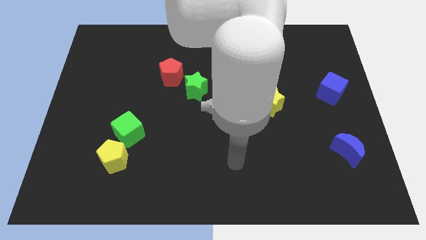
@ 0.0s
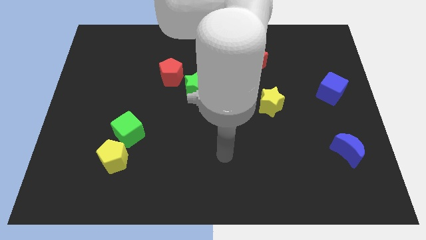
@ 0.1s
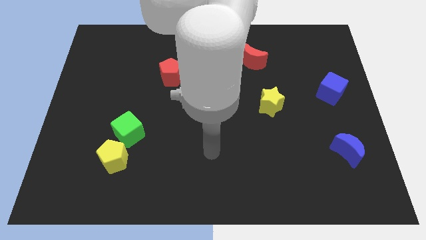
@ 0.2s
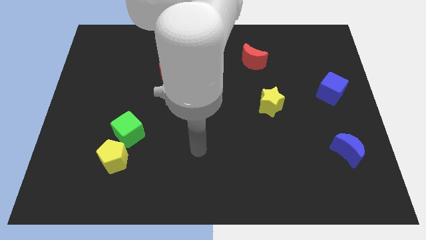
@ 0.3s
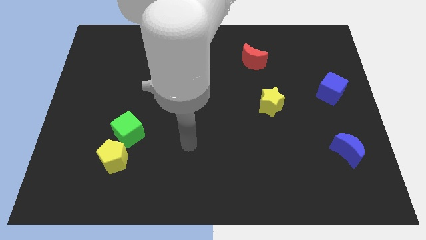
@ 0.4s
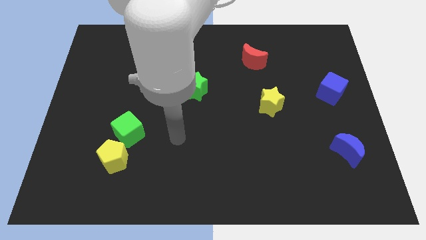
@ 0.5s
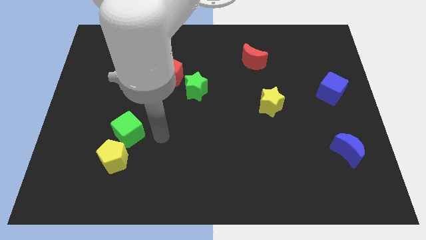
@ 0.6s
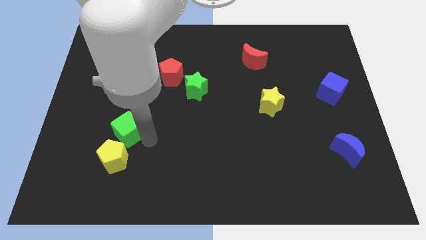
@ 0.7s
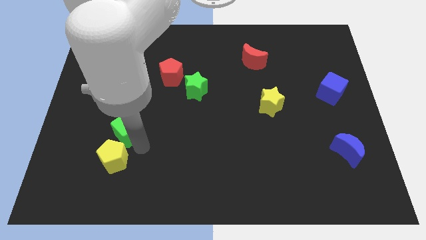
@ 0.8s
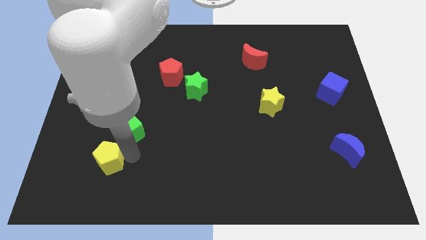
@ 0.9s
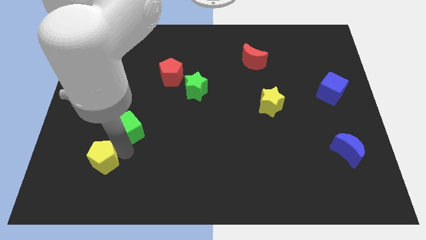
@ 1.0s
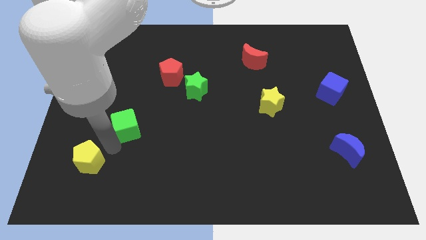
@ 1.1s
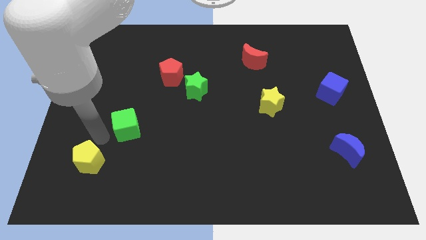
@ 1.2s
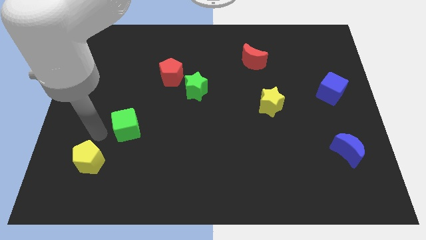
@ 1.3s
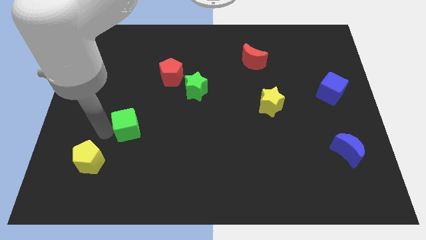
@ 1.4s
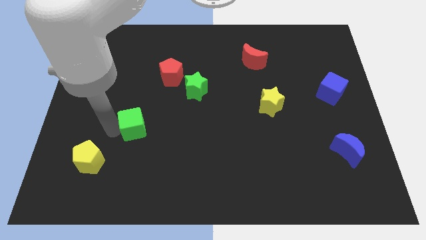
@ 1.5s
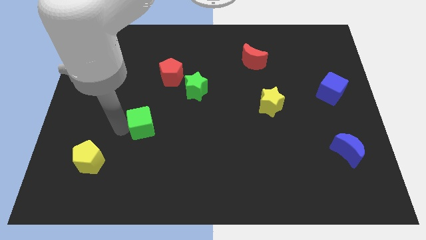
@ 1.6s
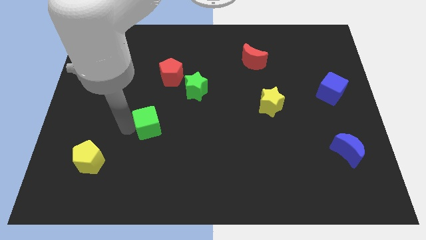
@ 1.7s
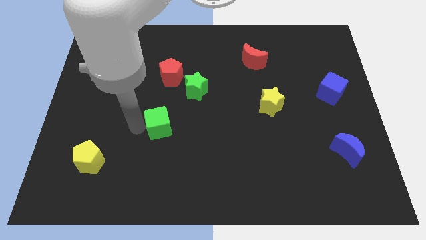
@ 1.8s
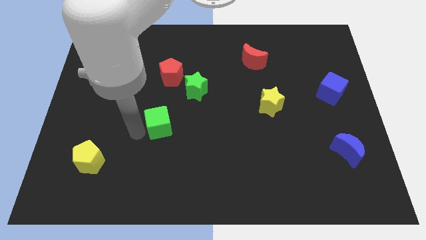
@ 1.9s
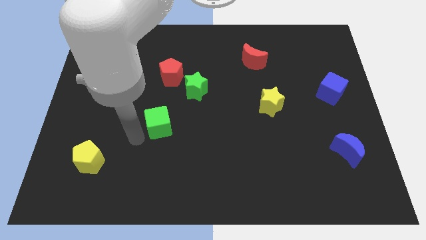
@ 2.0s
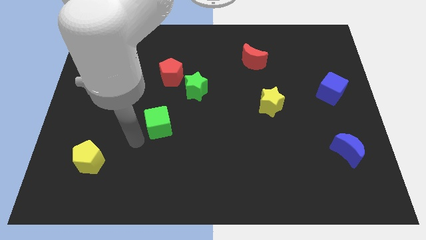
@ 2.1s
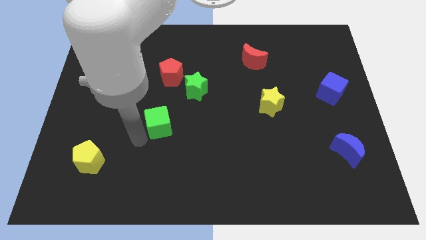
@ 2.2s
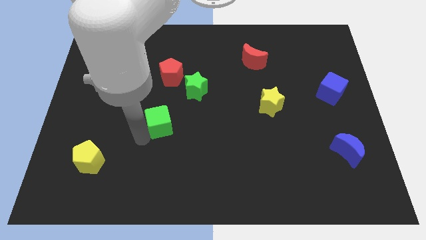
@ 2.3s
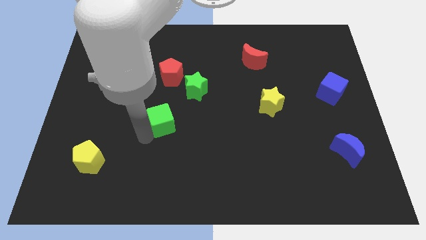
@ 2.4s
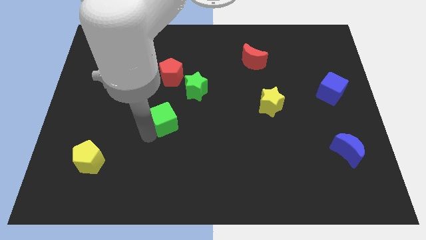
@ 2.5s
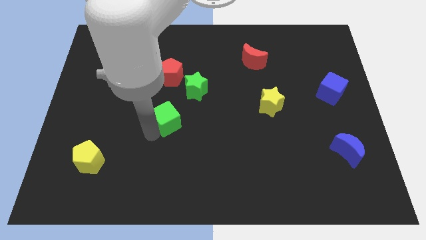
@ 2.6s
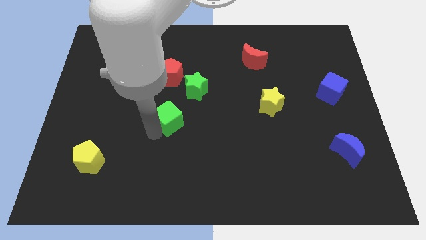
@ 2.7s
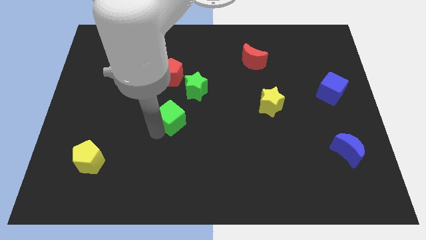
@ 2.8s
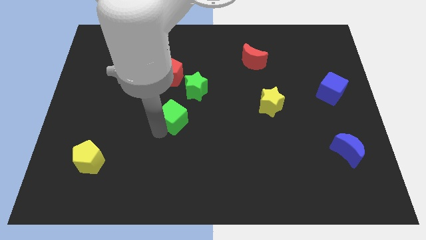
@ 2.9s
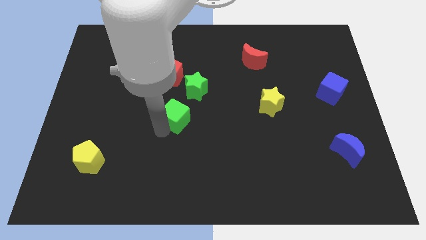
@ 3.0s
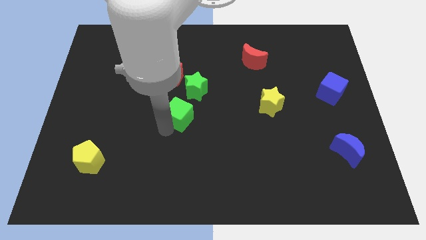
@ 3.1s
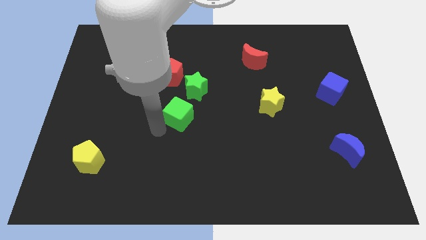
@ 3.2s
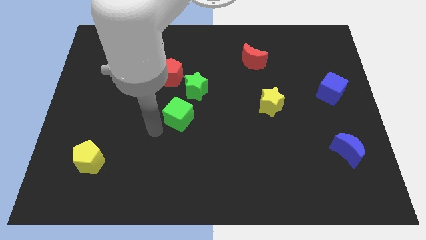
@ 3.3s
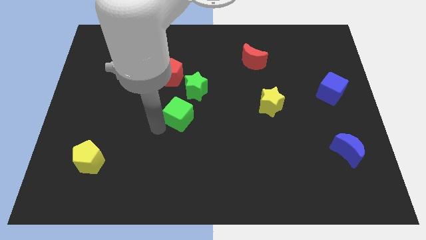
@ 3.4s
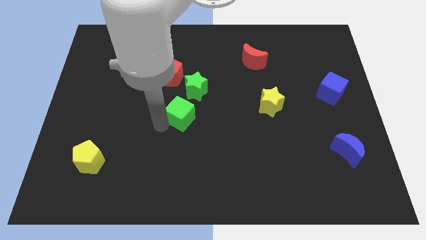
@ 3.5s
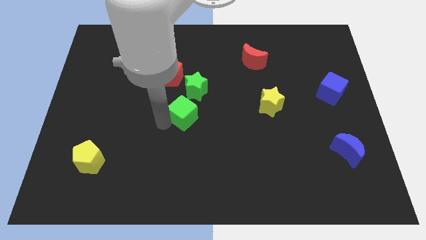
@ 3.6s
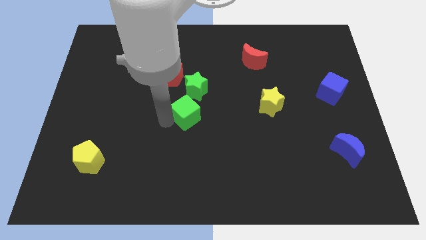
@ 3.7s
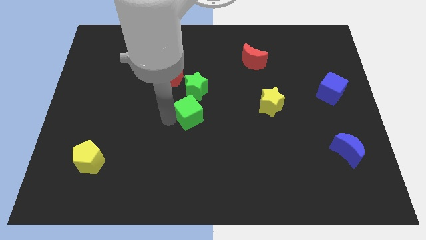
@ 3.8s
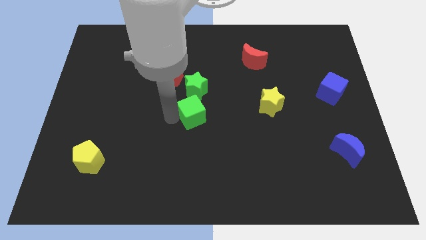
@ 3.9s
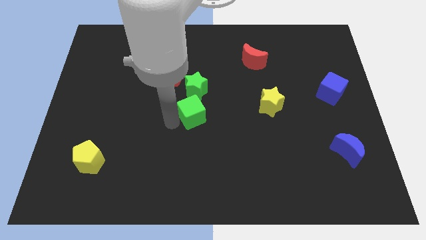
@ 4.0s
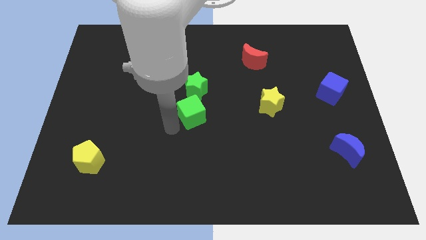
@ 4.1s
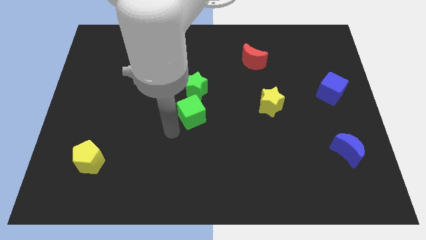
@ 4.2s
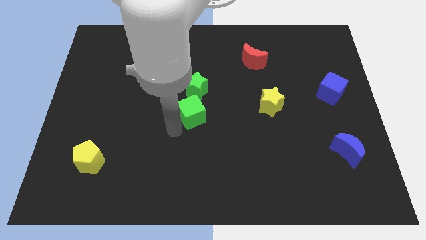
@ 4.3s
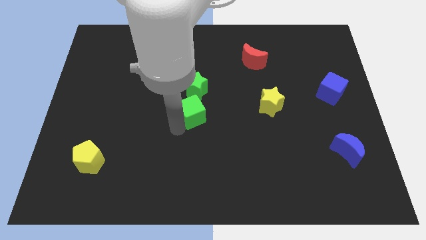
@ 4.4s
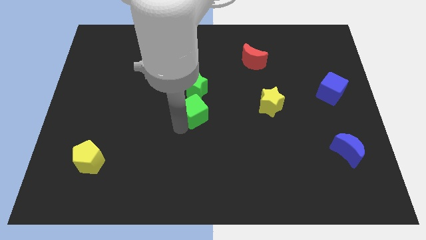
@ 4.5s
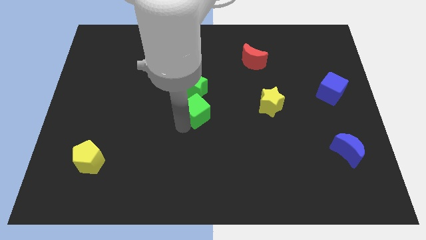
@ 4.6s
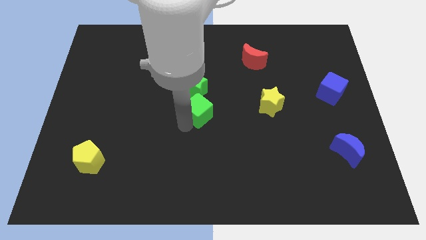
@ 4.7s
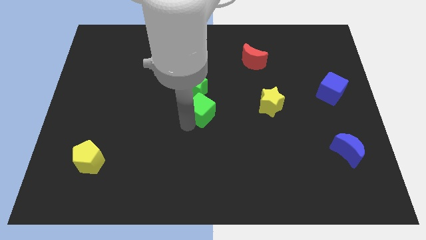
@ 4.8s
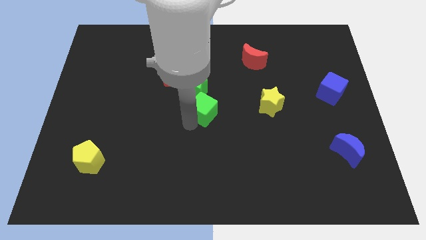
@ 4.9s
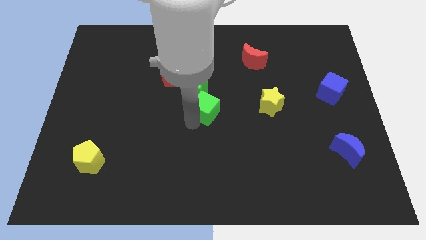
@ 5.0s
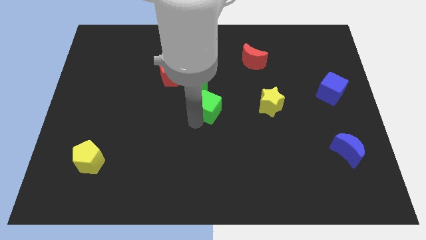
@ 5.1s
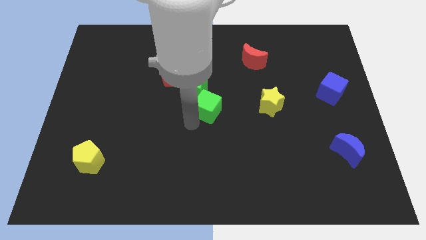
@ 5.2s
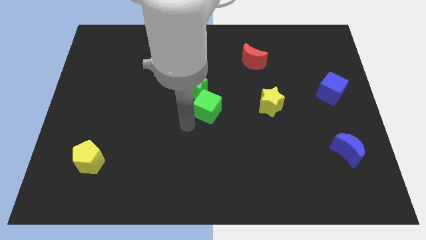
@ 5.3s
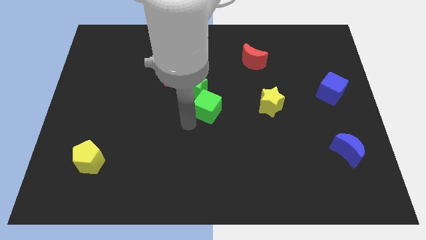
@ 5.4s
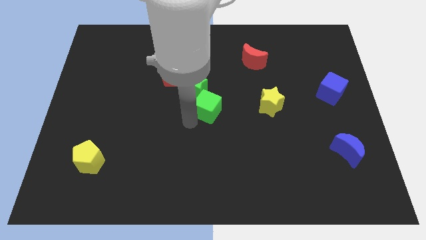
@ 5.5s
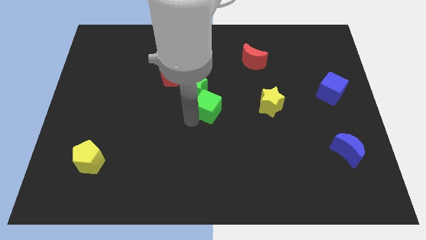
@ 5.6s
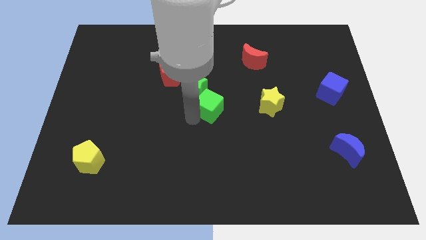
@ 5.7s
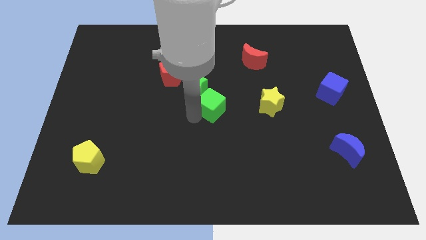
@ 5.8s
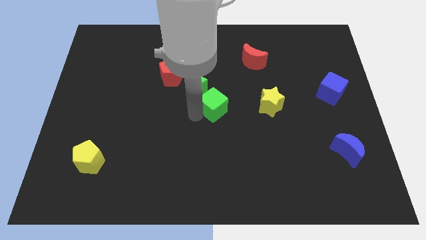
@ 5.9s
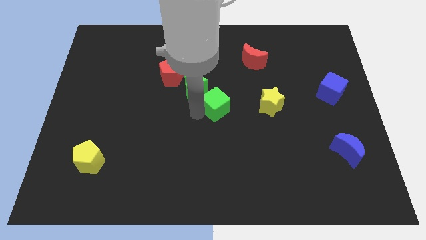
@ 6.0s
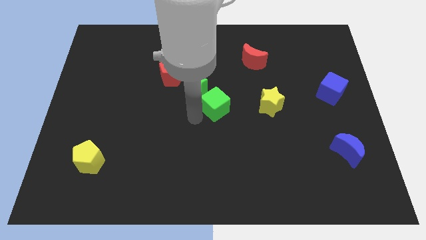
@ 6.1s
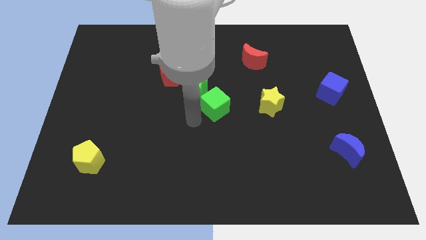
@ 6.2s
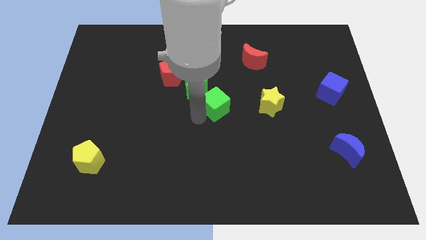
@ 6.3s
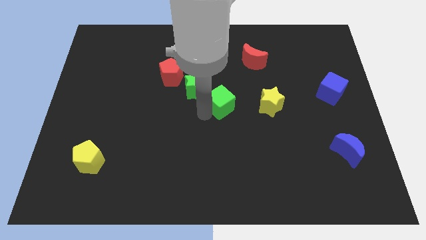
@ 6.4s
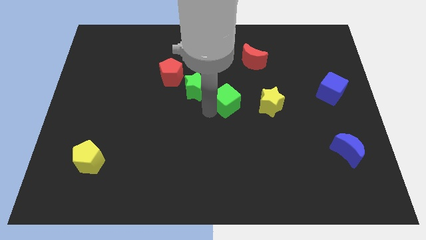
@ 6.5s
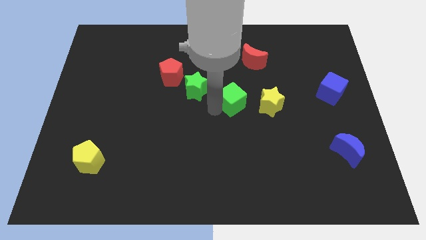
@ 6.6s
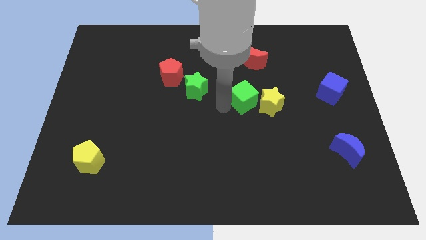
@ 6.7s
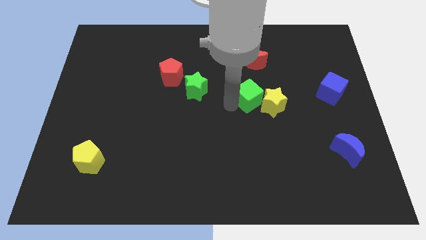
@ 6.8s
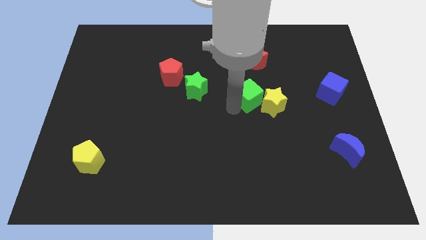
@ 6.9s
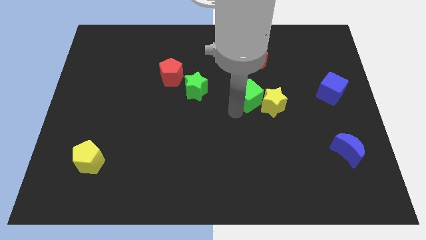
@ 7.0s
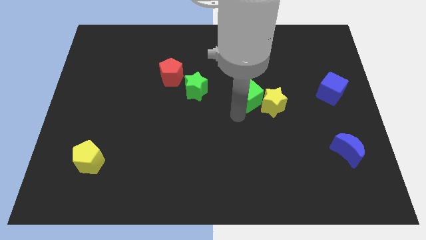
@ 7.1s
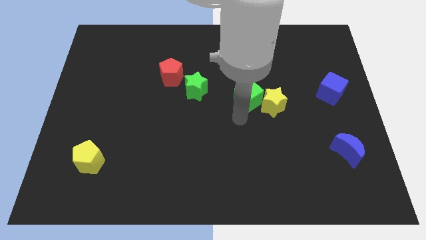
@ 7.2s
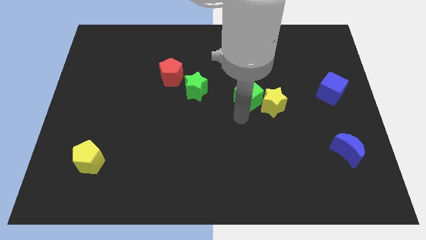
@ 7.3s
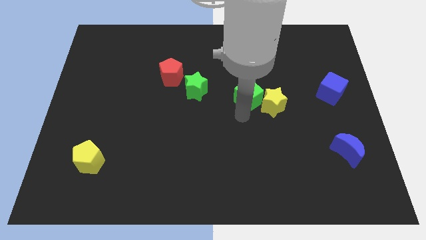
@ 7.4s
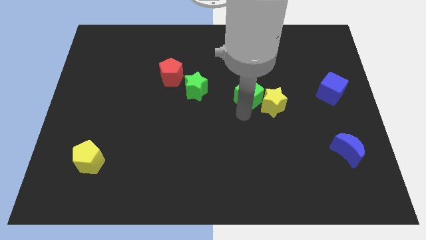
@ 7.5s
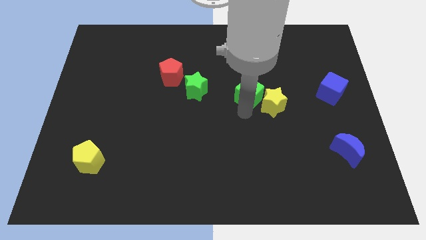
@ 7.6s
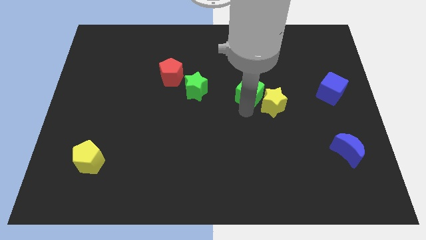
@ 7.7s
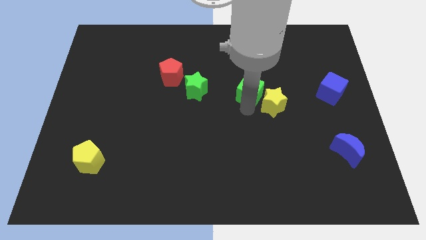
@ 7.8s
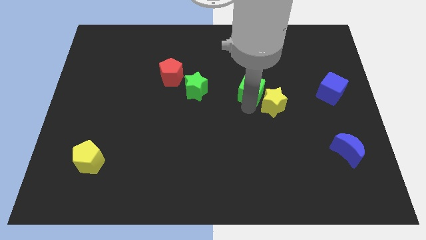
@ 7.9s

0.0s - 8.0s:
put the green cube above the yellow star

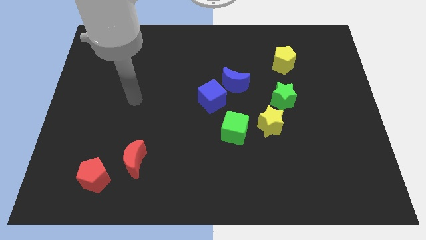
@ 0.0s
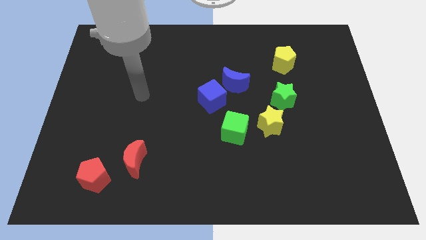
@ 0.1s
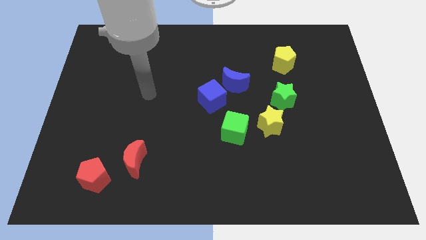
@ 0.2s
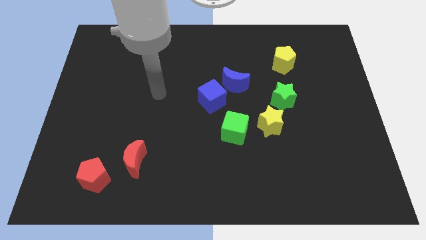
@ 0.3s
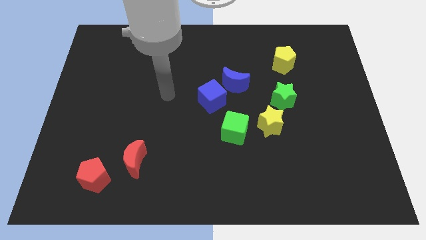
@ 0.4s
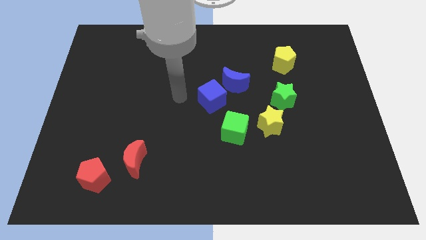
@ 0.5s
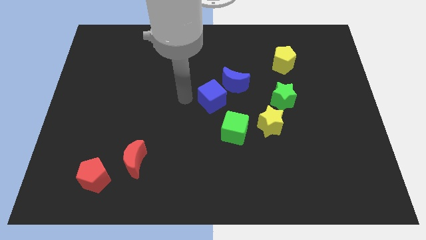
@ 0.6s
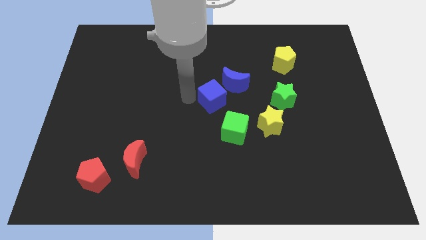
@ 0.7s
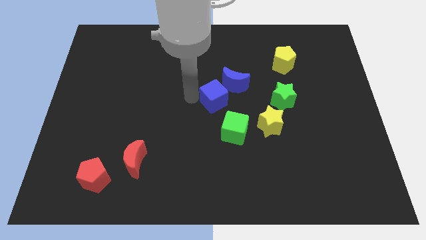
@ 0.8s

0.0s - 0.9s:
put the blue cube to the left of the green star
